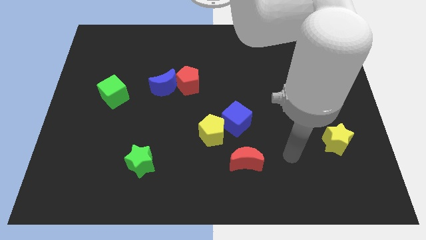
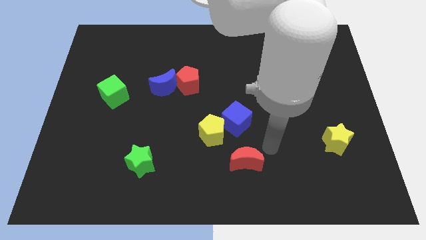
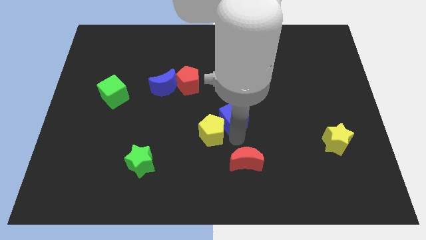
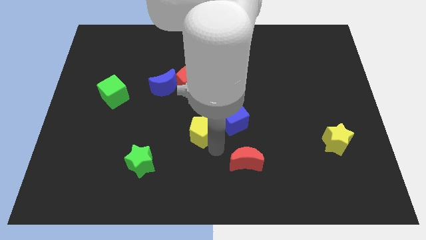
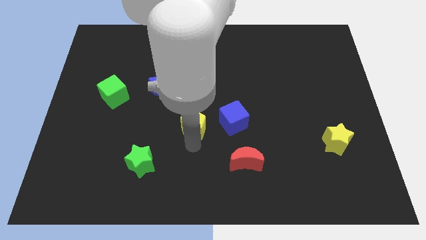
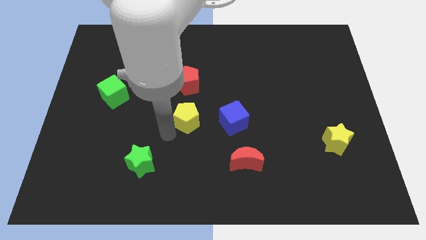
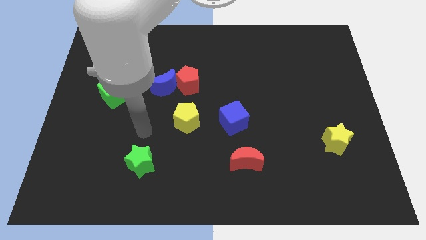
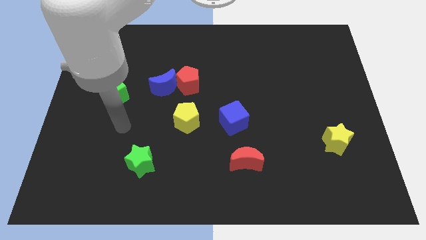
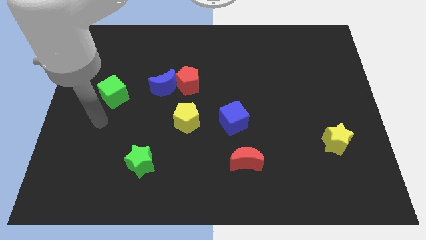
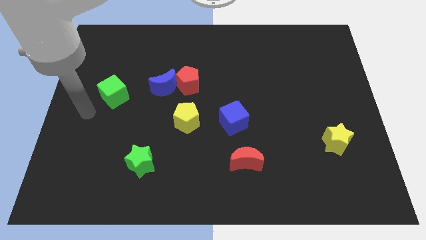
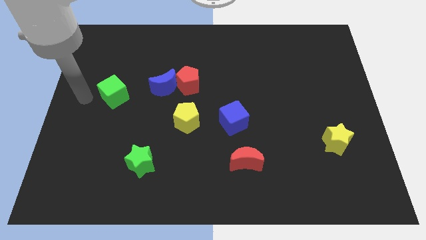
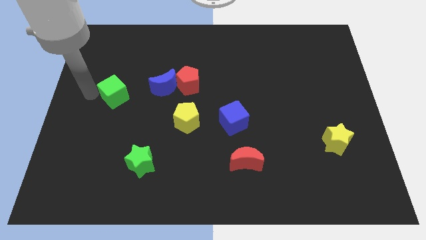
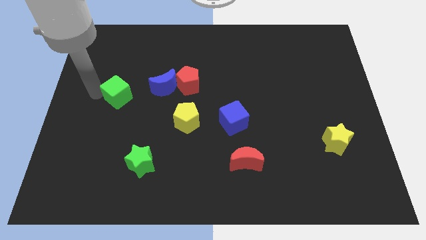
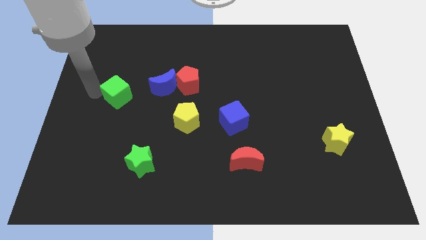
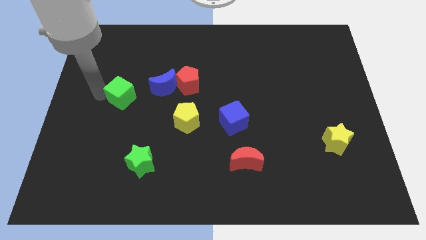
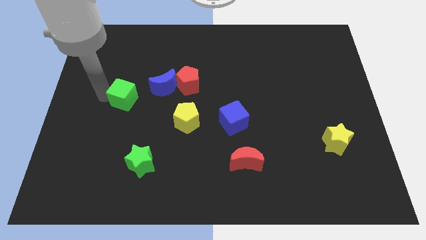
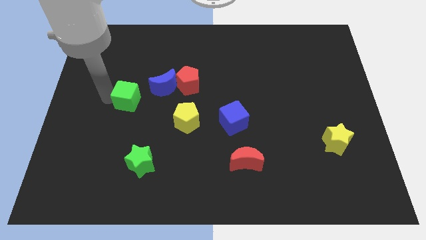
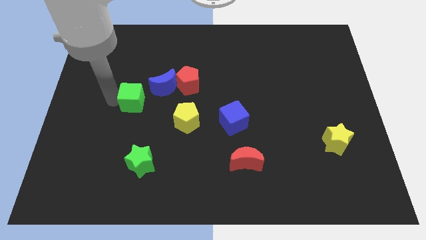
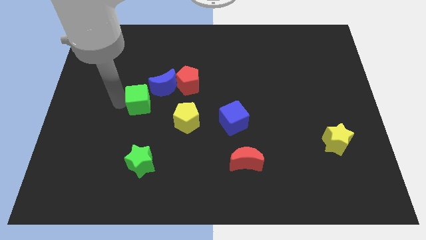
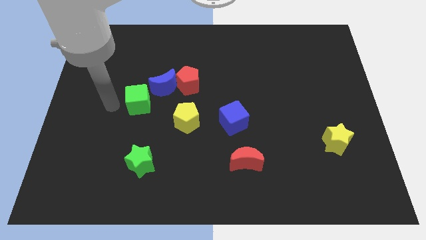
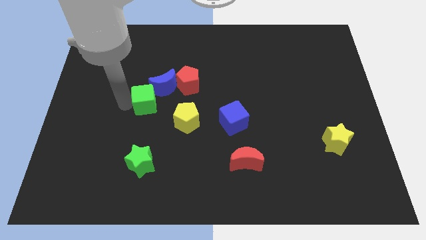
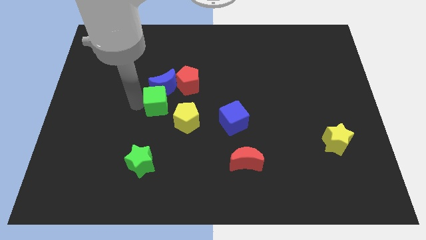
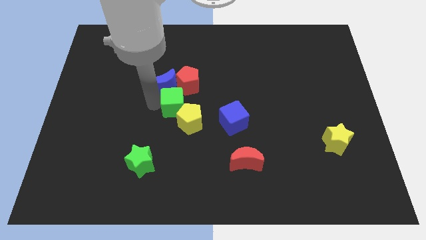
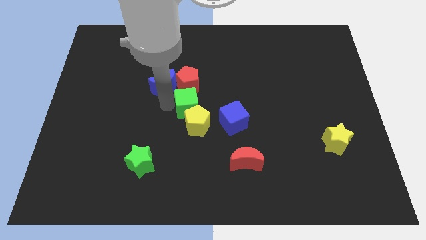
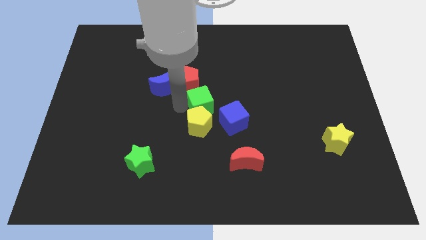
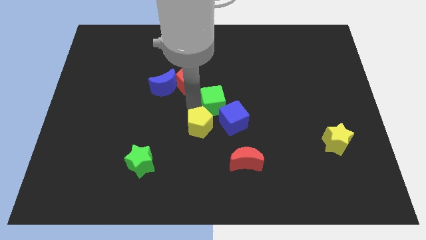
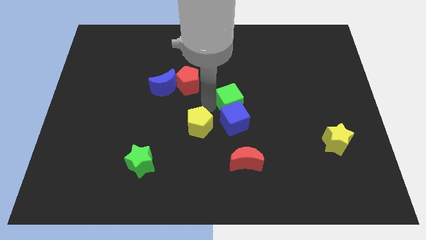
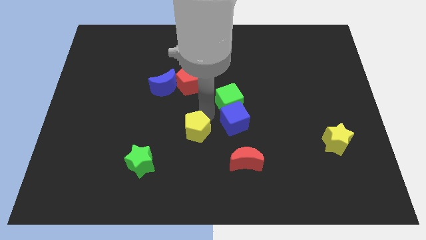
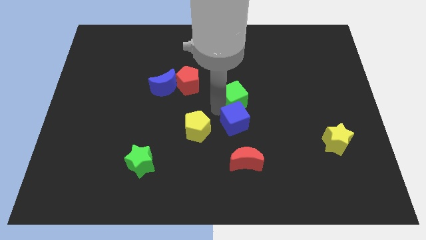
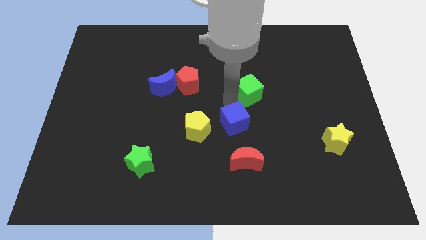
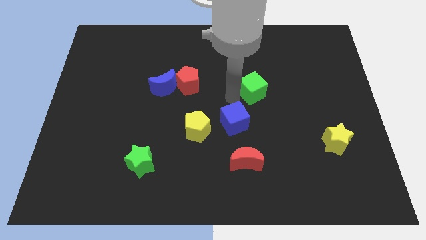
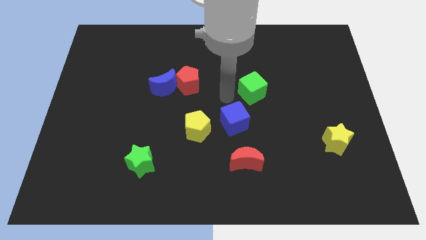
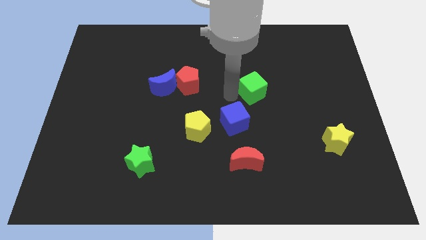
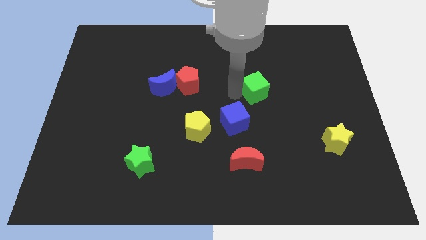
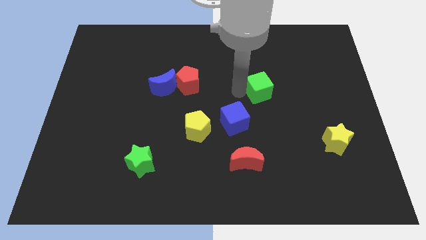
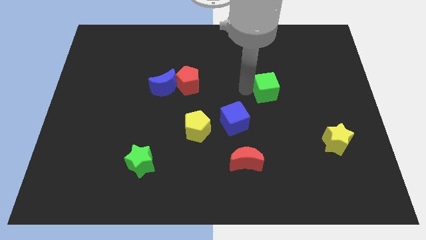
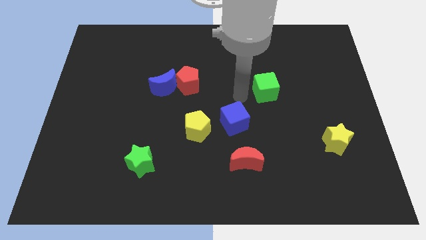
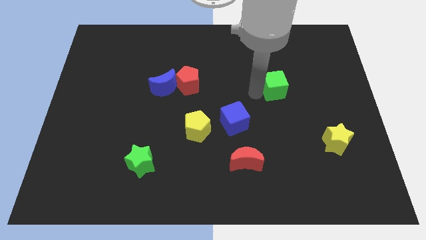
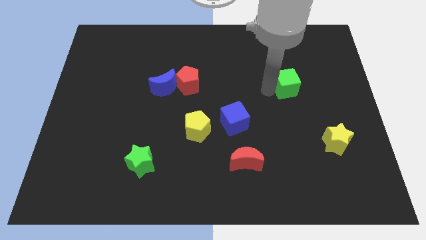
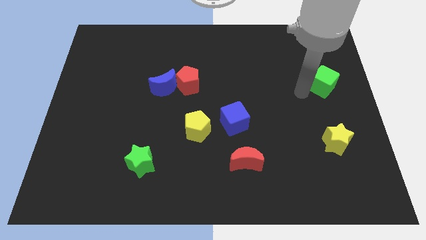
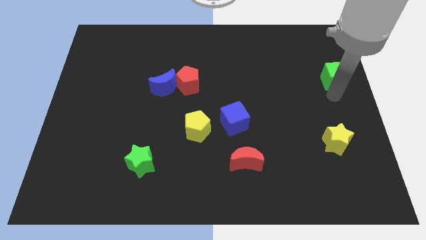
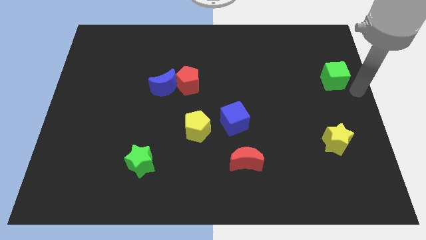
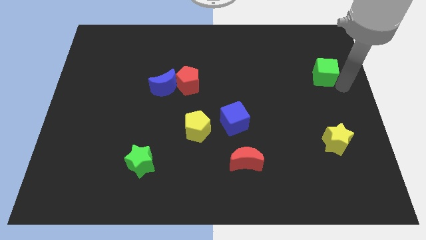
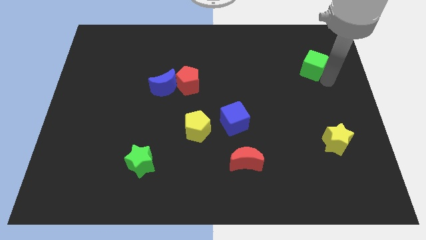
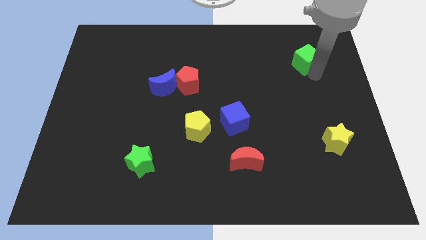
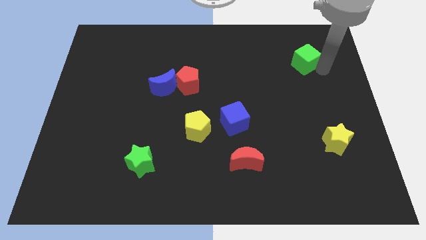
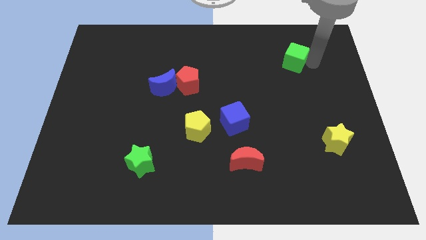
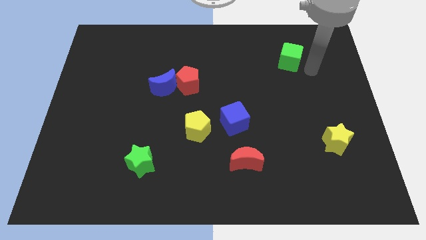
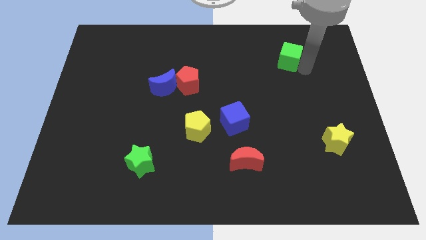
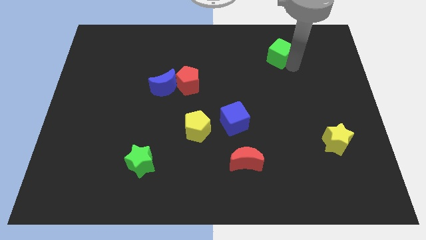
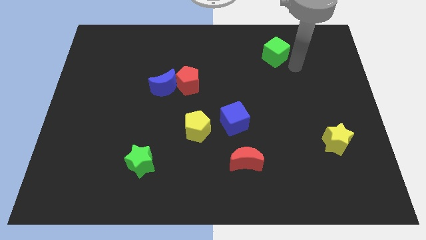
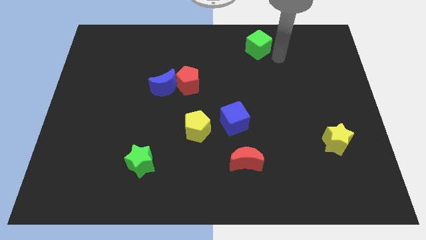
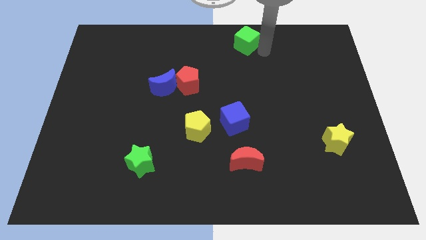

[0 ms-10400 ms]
slide the green cube to the top

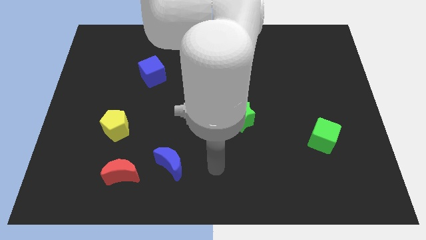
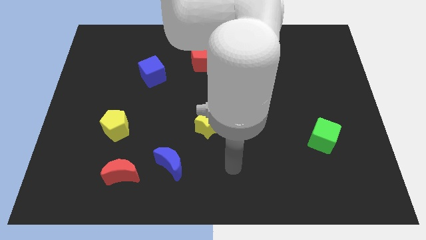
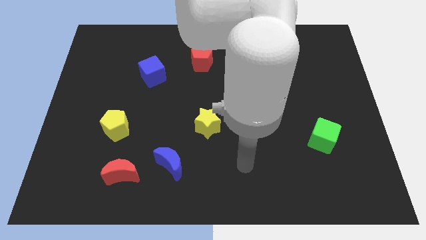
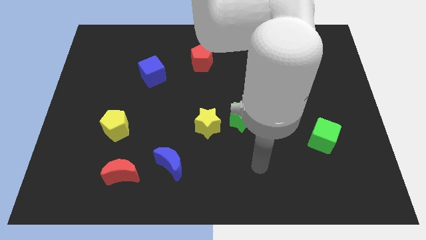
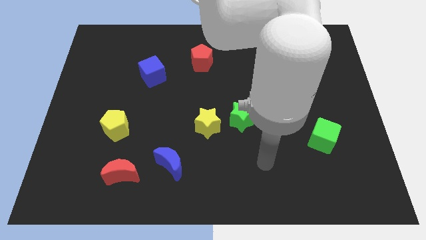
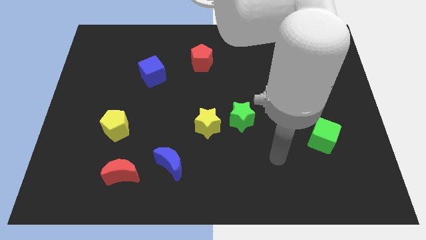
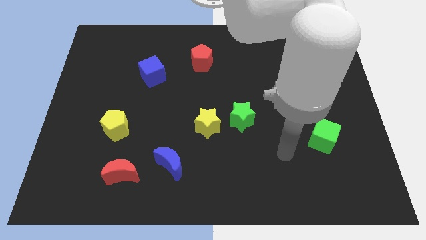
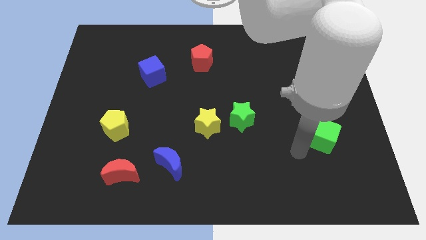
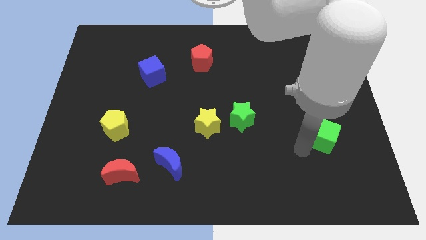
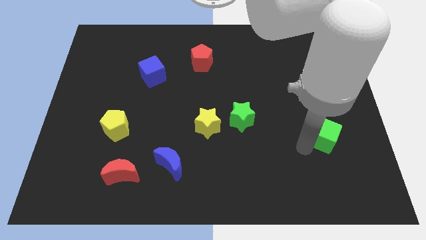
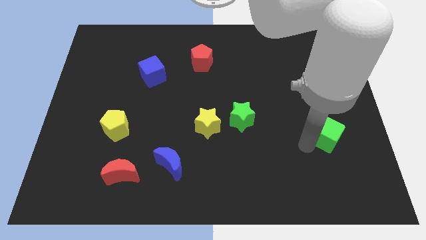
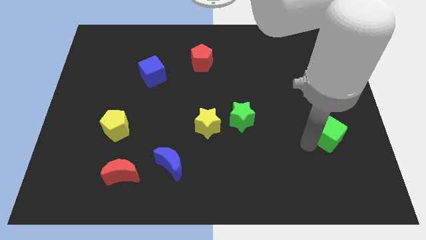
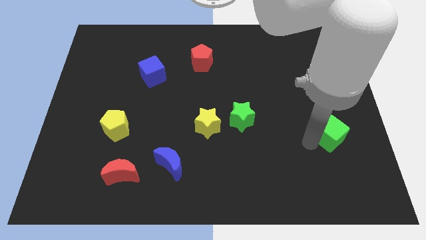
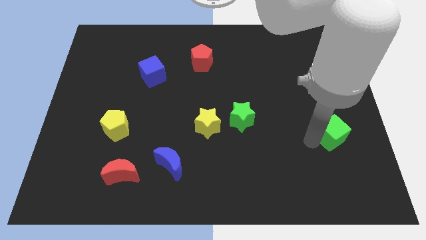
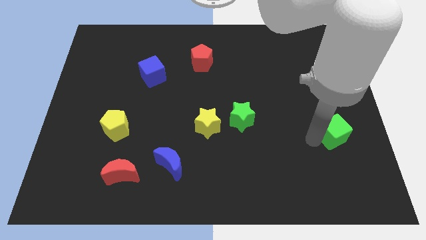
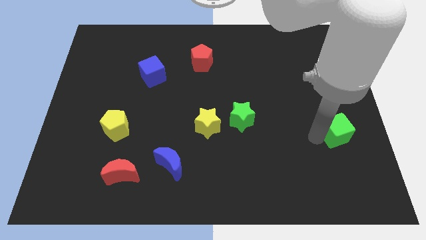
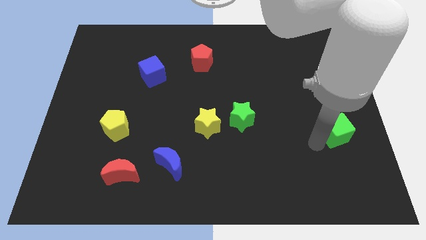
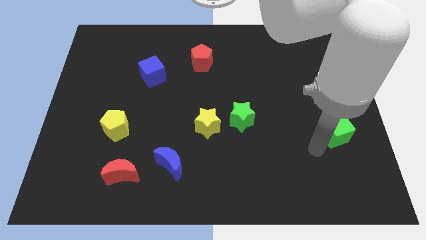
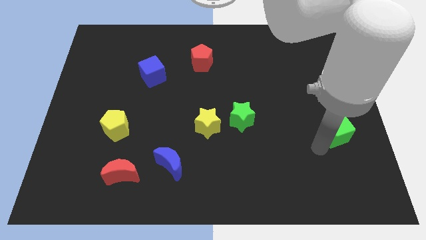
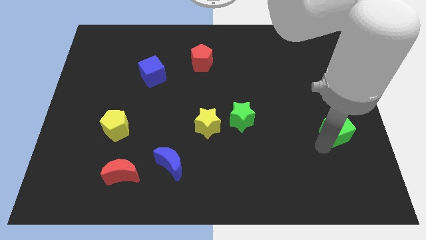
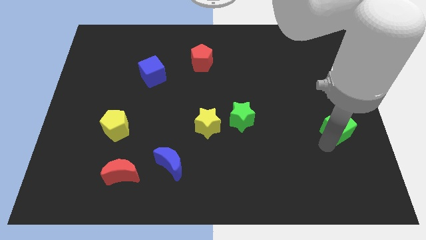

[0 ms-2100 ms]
move the green cube to the center right
